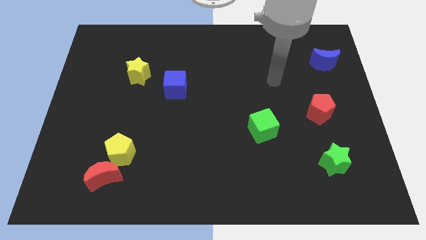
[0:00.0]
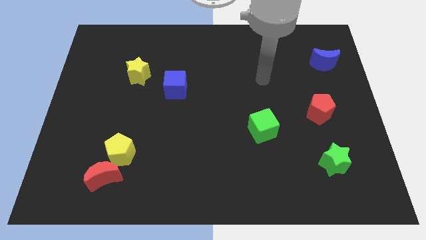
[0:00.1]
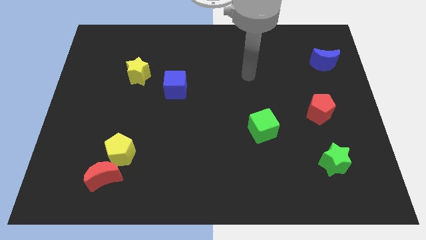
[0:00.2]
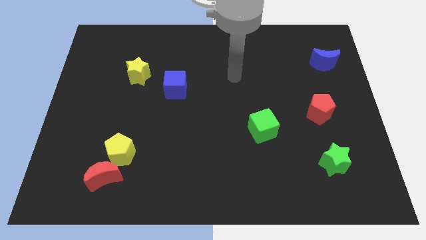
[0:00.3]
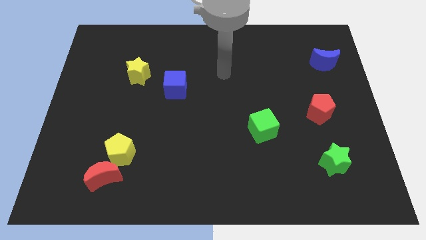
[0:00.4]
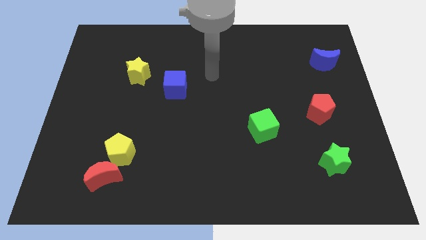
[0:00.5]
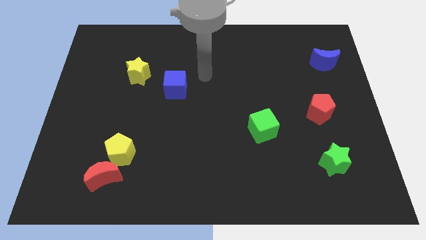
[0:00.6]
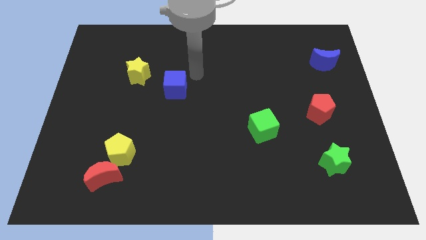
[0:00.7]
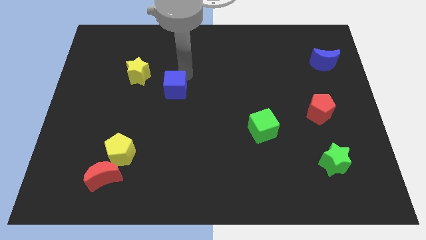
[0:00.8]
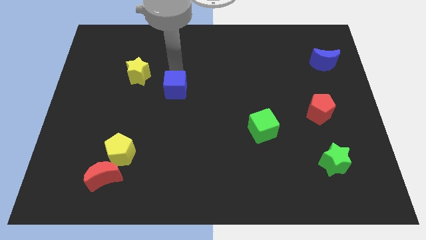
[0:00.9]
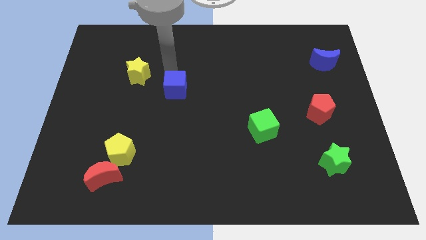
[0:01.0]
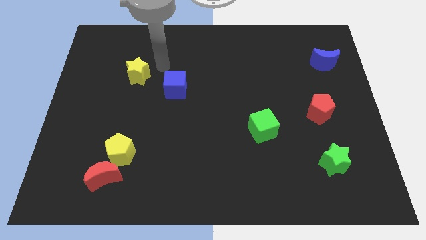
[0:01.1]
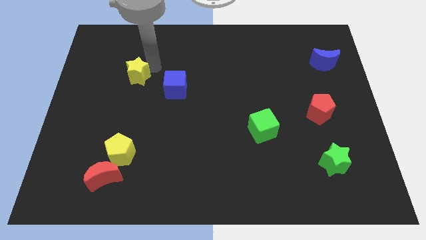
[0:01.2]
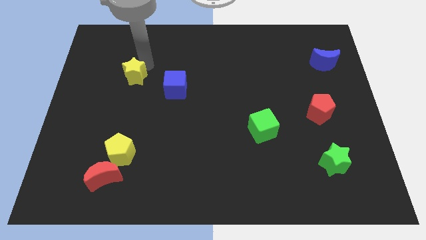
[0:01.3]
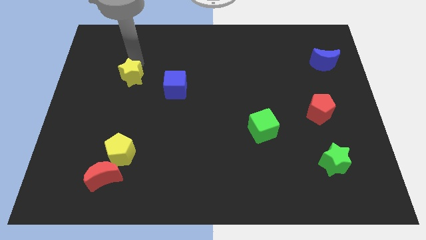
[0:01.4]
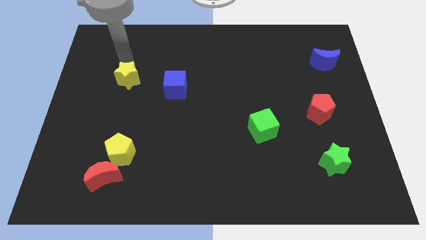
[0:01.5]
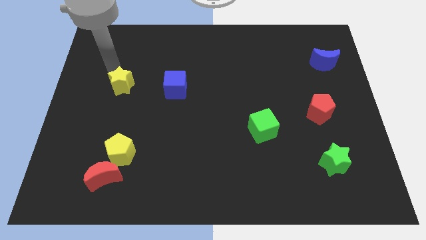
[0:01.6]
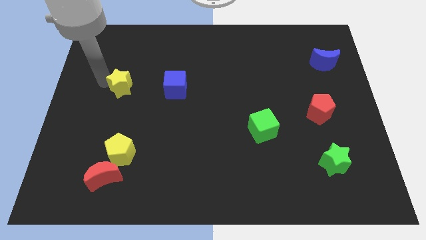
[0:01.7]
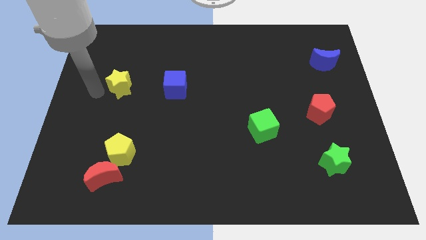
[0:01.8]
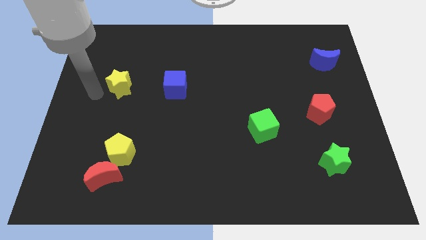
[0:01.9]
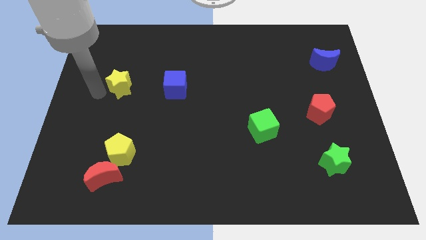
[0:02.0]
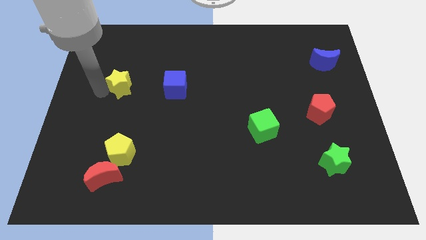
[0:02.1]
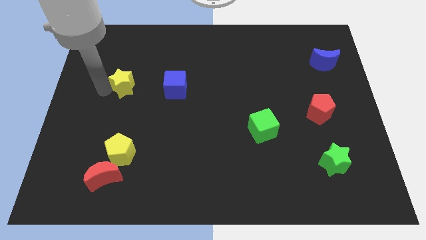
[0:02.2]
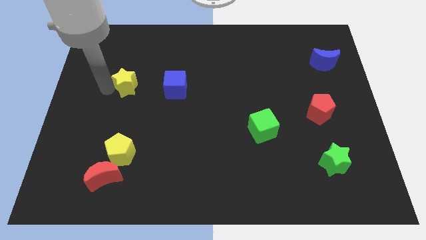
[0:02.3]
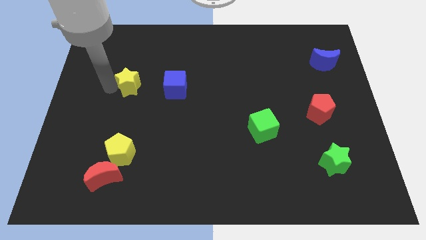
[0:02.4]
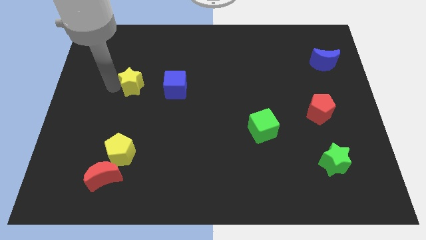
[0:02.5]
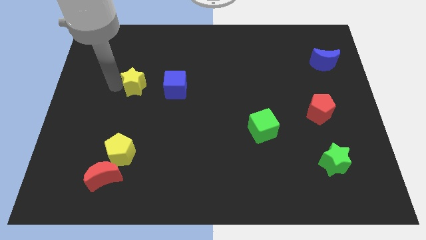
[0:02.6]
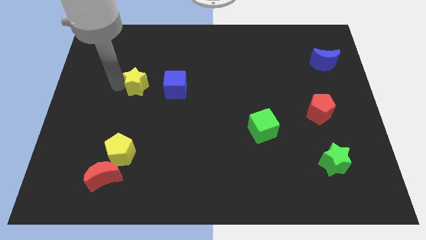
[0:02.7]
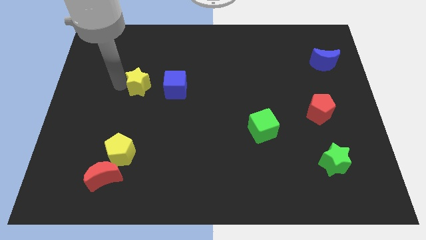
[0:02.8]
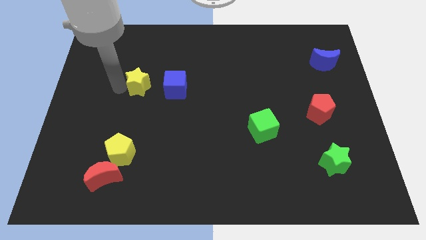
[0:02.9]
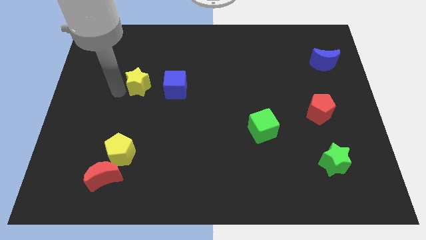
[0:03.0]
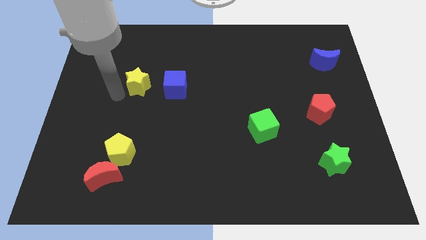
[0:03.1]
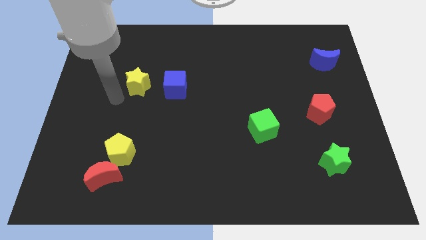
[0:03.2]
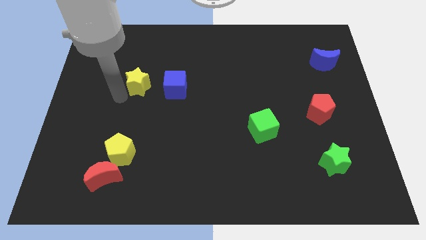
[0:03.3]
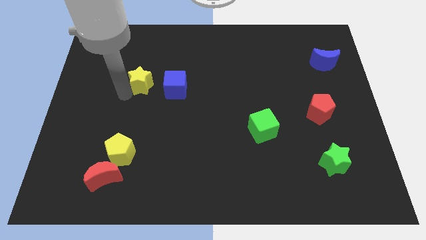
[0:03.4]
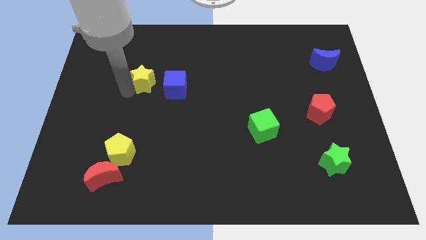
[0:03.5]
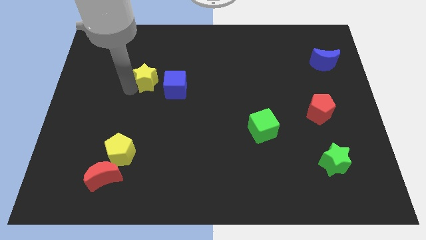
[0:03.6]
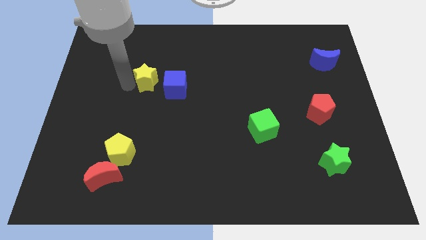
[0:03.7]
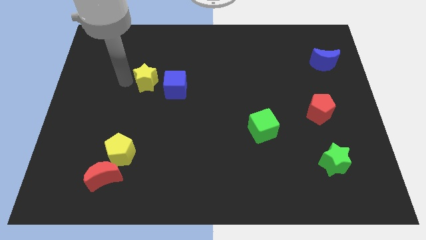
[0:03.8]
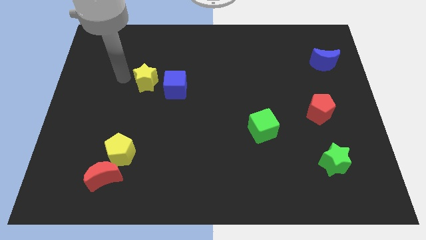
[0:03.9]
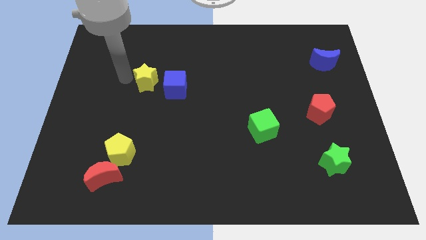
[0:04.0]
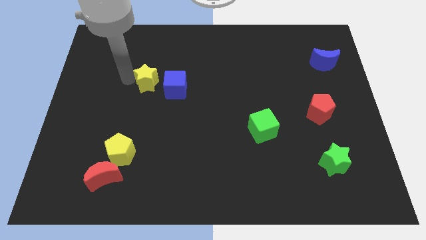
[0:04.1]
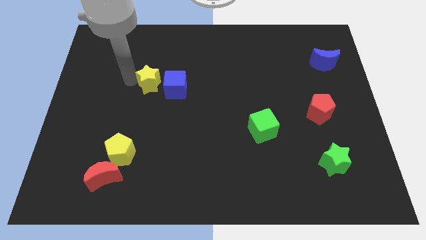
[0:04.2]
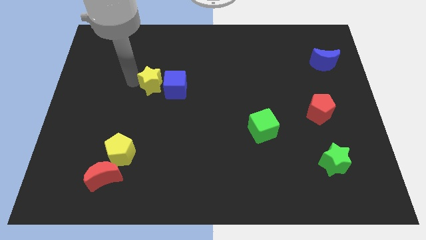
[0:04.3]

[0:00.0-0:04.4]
push the yellow star next to the blue cube

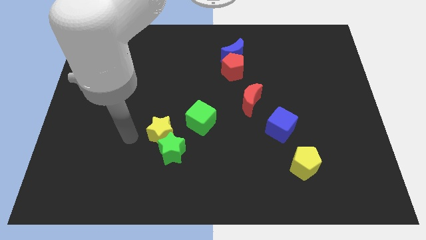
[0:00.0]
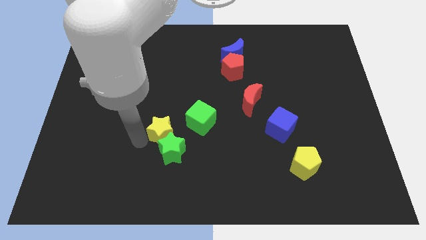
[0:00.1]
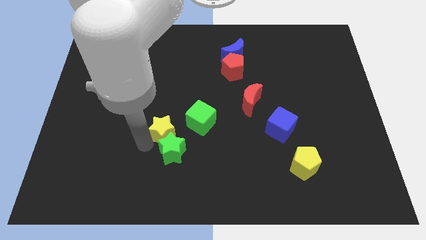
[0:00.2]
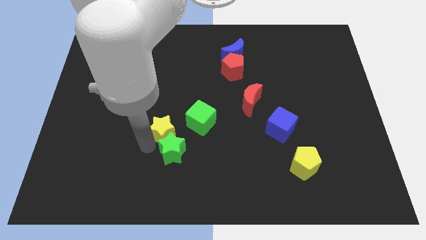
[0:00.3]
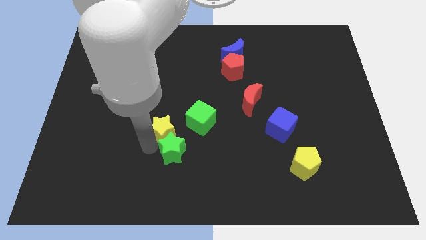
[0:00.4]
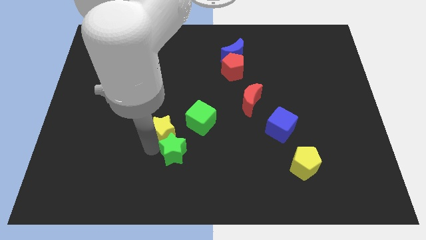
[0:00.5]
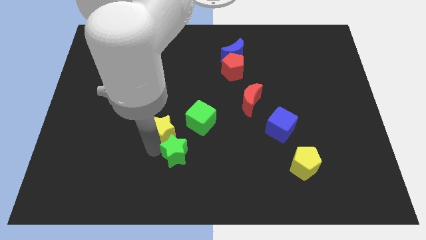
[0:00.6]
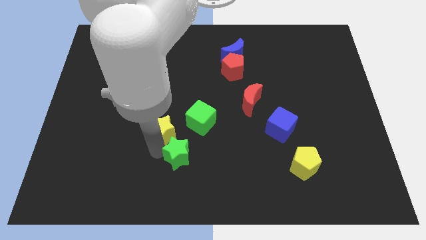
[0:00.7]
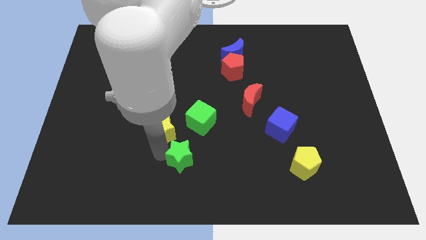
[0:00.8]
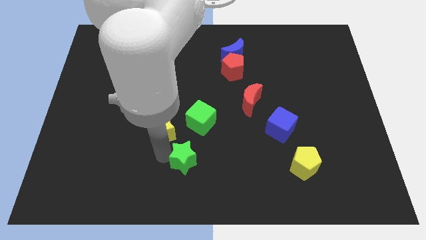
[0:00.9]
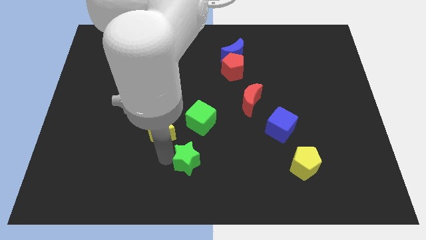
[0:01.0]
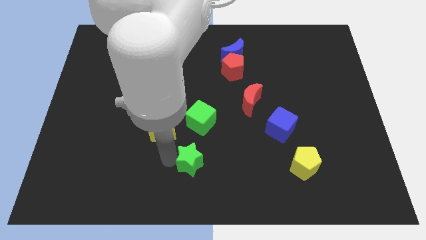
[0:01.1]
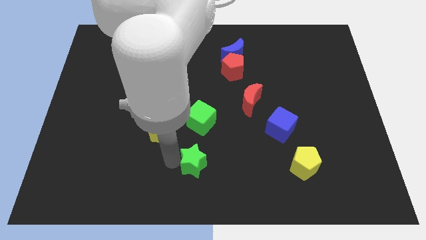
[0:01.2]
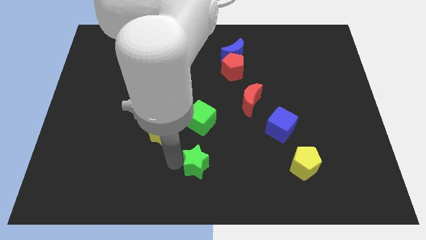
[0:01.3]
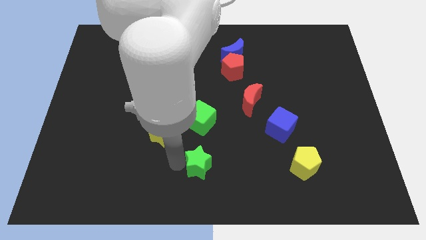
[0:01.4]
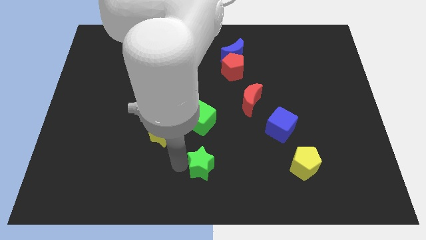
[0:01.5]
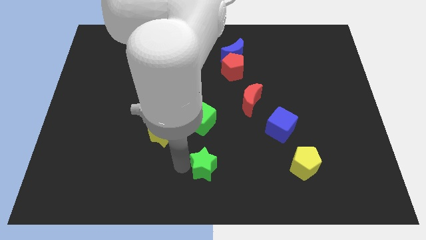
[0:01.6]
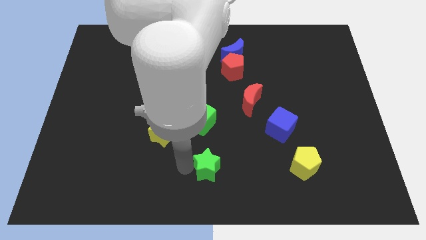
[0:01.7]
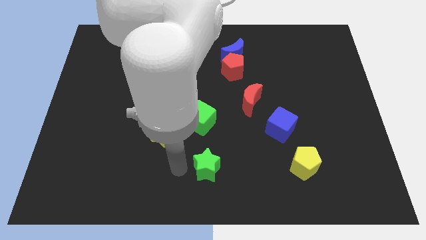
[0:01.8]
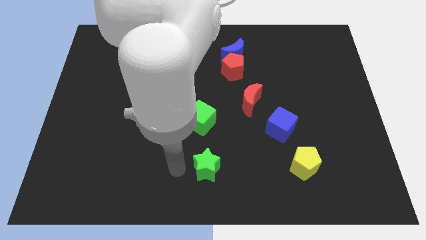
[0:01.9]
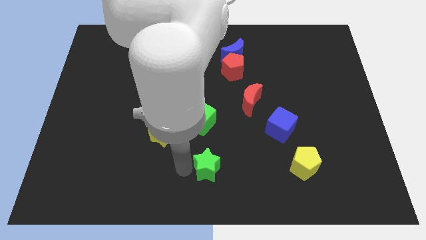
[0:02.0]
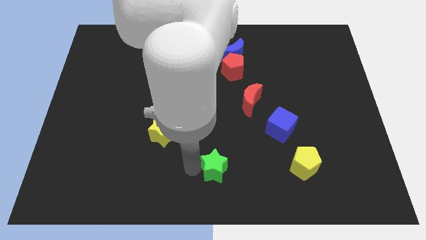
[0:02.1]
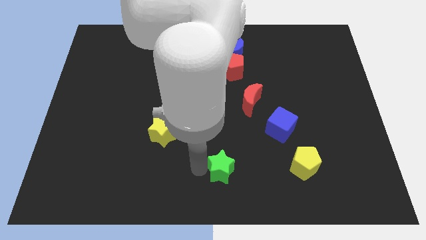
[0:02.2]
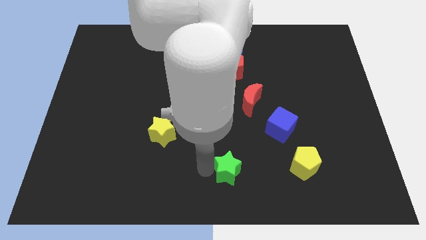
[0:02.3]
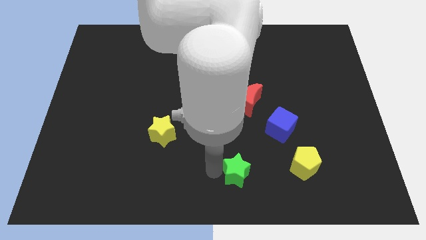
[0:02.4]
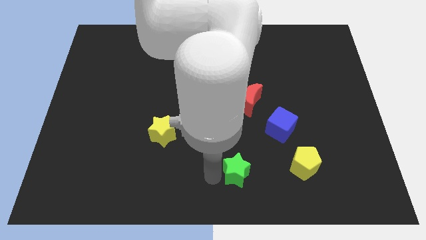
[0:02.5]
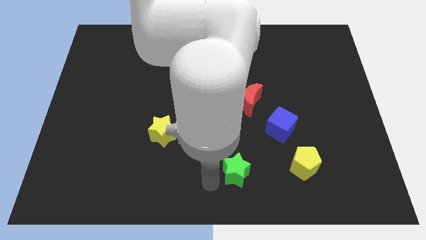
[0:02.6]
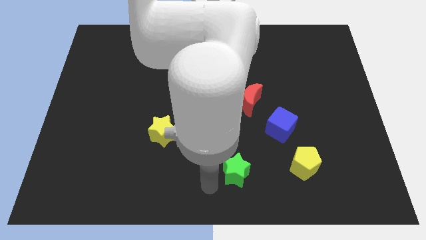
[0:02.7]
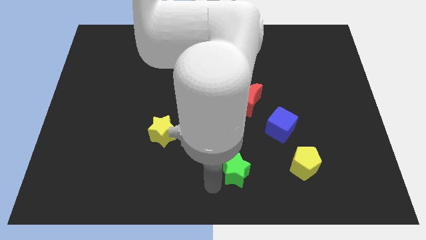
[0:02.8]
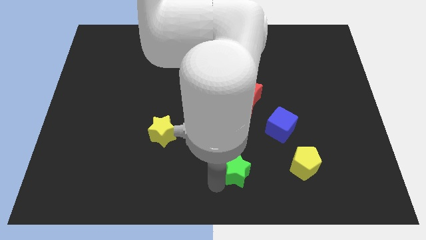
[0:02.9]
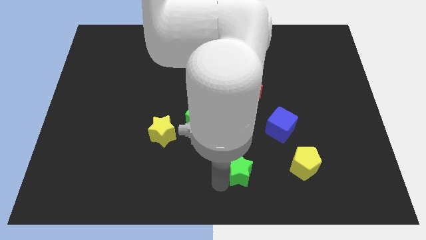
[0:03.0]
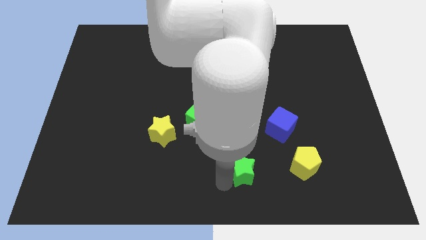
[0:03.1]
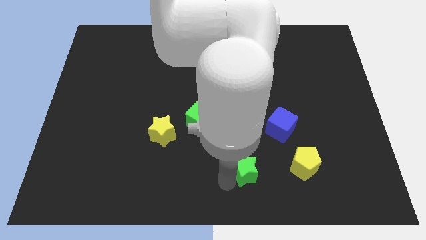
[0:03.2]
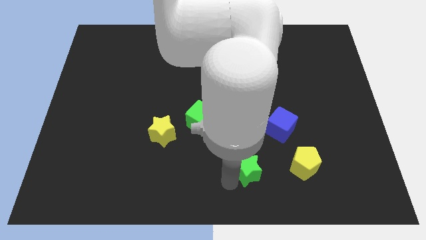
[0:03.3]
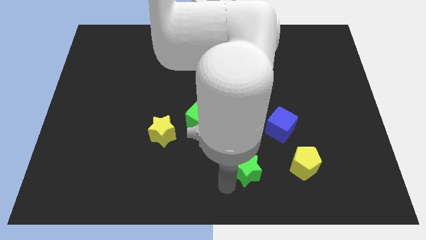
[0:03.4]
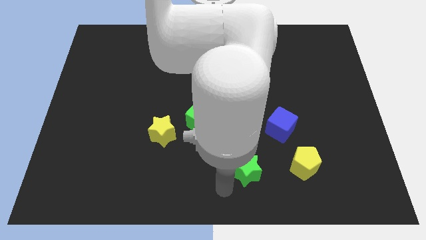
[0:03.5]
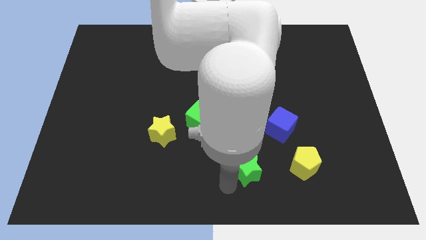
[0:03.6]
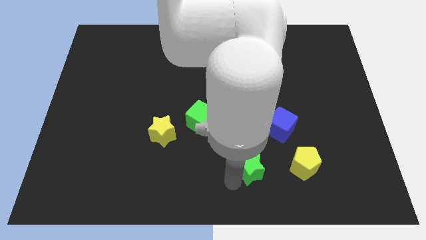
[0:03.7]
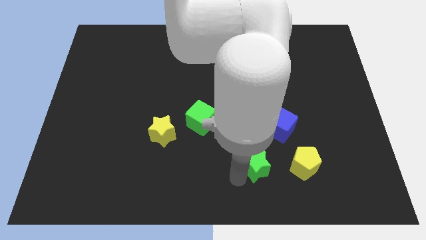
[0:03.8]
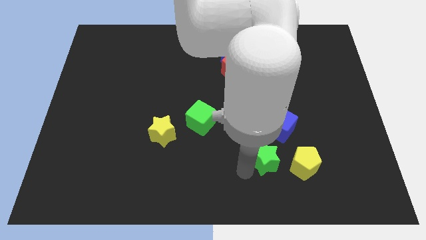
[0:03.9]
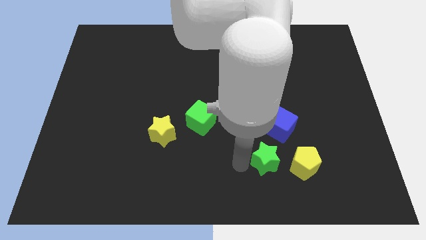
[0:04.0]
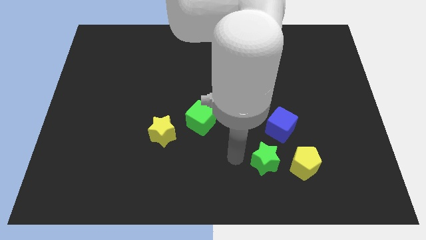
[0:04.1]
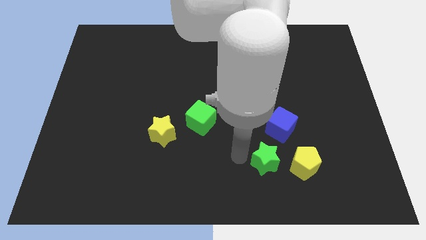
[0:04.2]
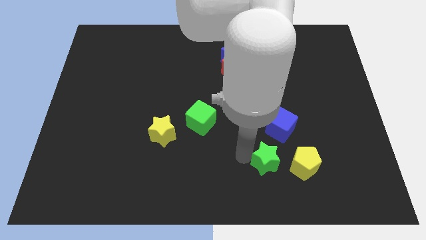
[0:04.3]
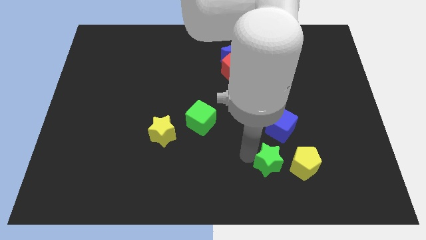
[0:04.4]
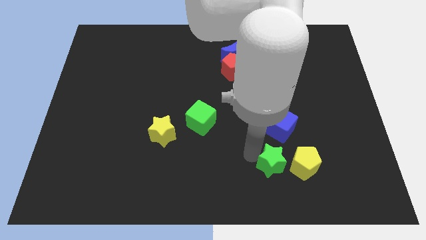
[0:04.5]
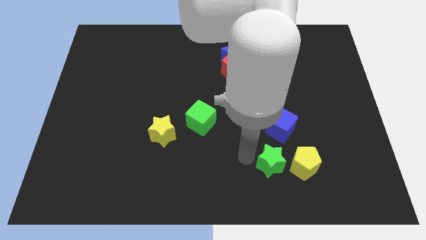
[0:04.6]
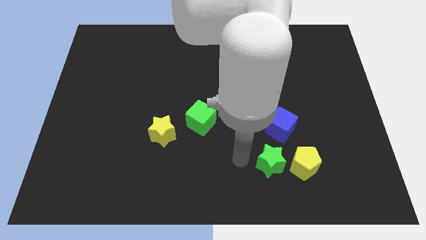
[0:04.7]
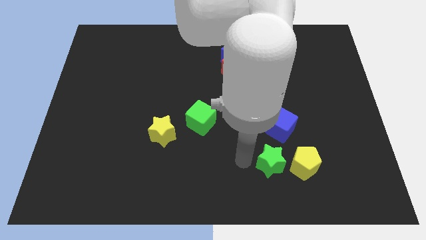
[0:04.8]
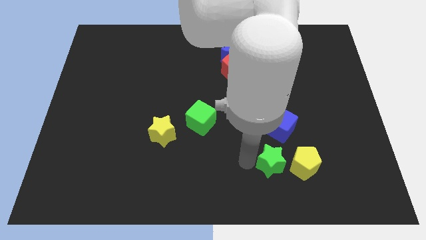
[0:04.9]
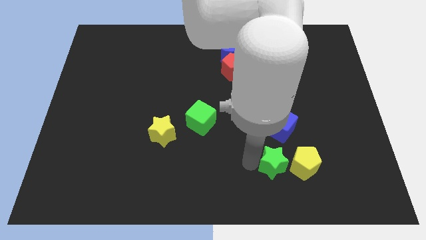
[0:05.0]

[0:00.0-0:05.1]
push the green star towards the yellow pentagon
